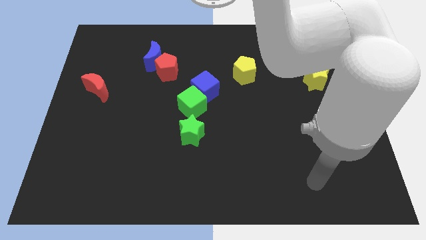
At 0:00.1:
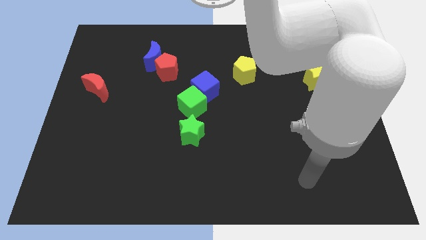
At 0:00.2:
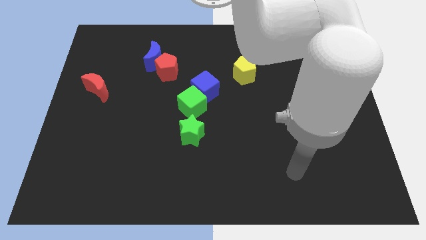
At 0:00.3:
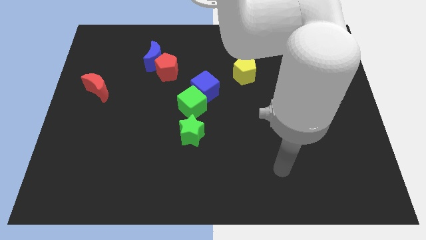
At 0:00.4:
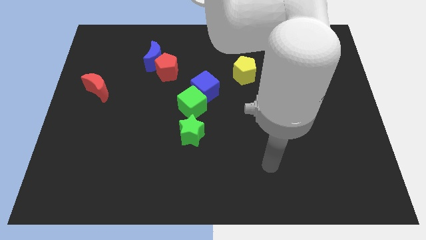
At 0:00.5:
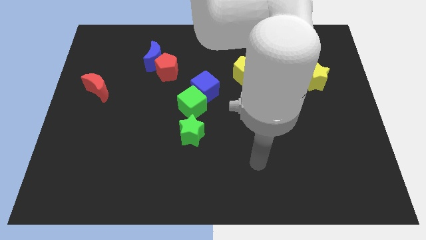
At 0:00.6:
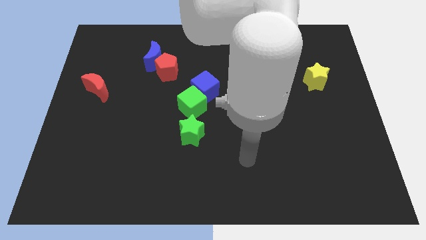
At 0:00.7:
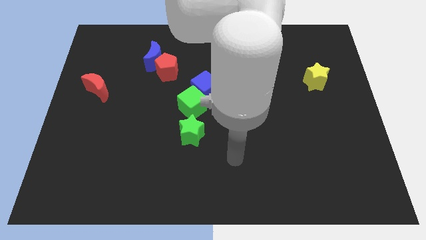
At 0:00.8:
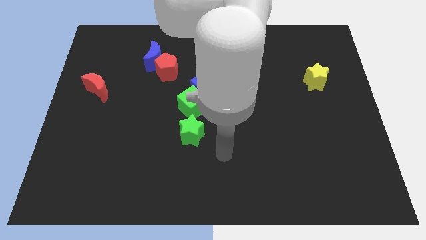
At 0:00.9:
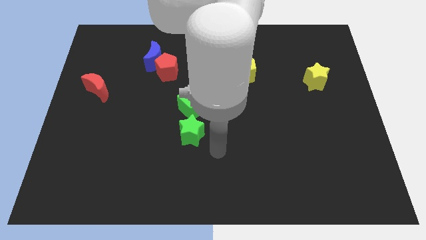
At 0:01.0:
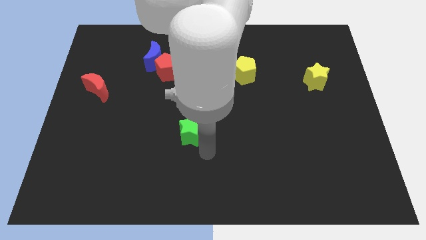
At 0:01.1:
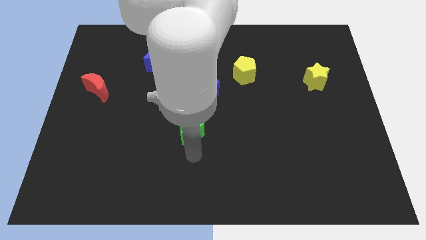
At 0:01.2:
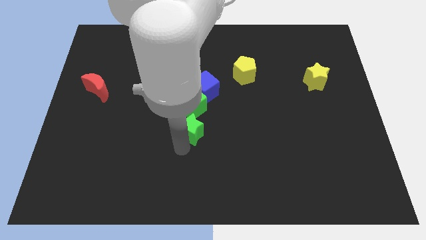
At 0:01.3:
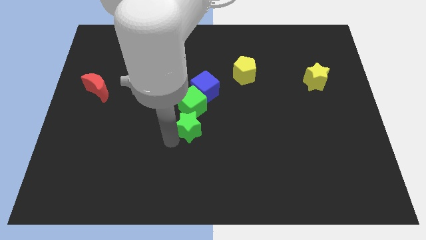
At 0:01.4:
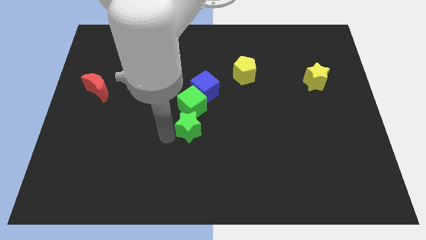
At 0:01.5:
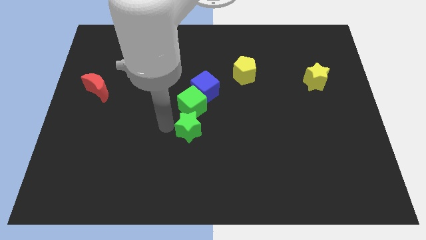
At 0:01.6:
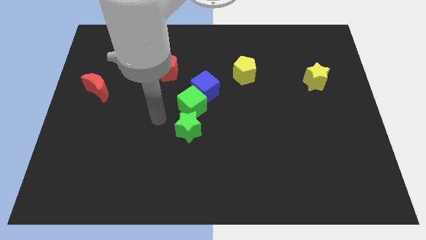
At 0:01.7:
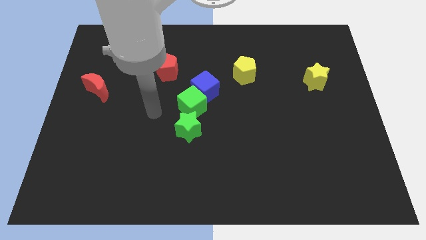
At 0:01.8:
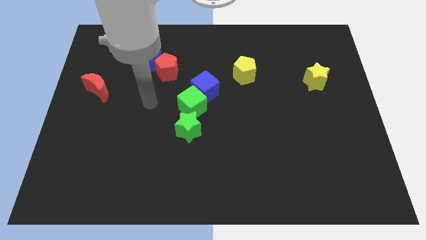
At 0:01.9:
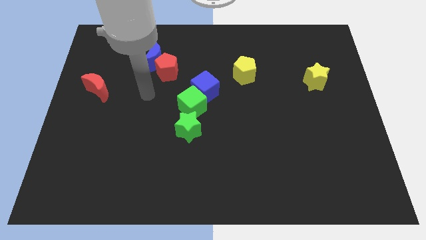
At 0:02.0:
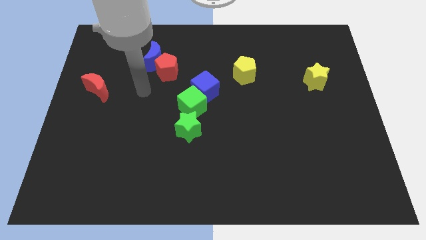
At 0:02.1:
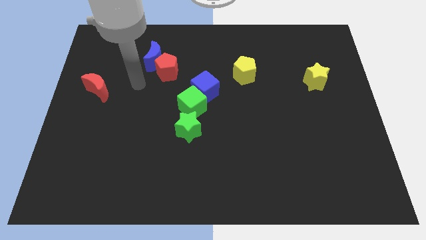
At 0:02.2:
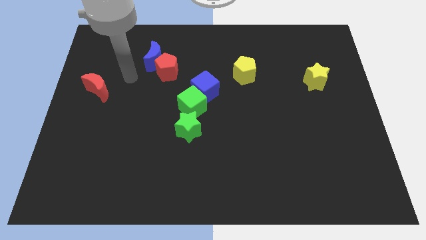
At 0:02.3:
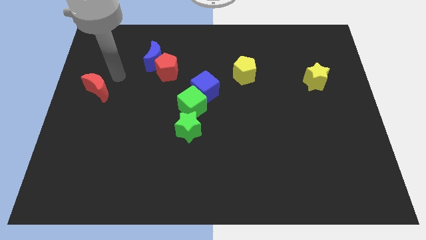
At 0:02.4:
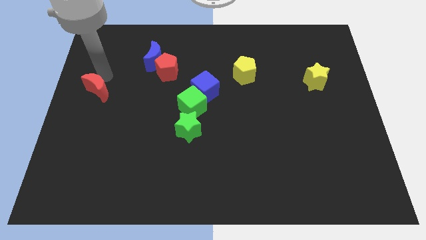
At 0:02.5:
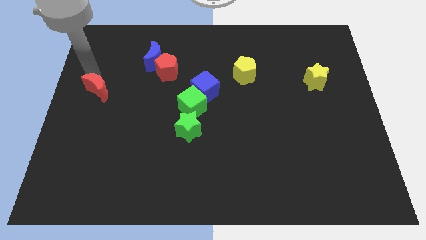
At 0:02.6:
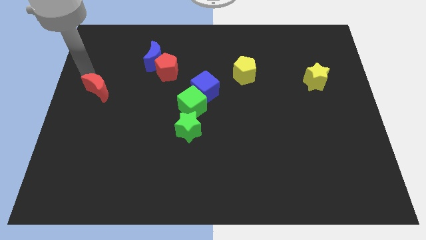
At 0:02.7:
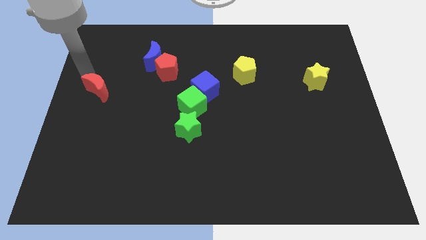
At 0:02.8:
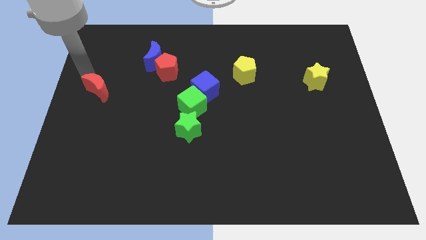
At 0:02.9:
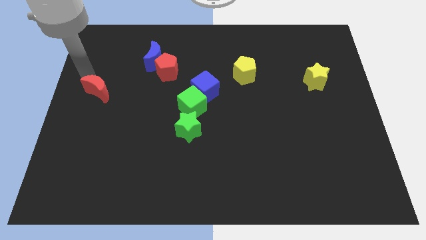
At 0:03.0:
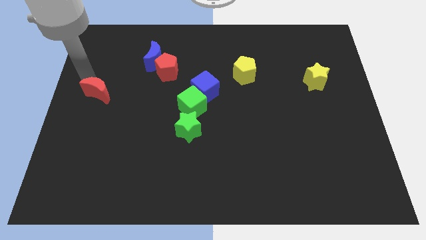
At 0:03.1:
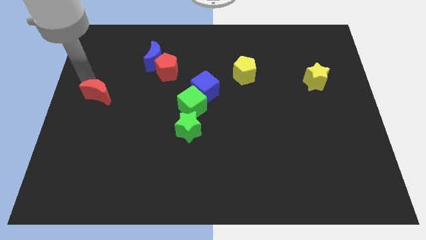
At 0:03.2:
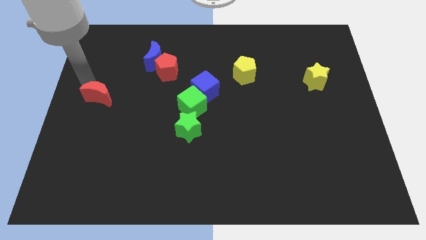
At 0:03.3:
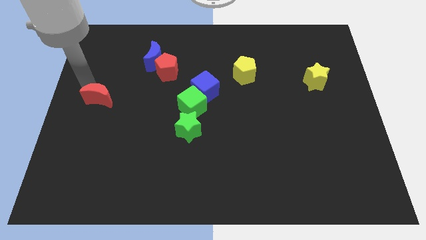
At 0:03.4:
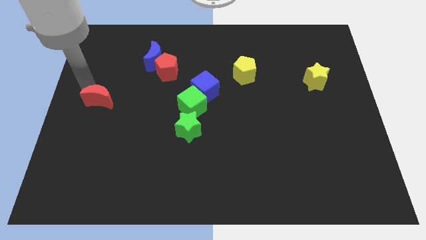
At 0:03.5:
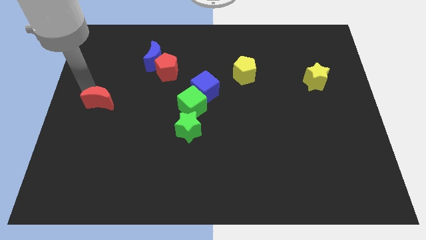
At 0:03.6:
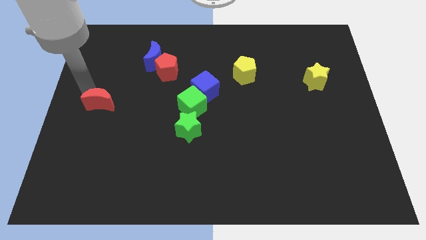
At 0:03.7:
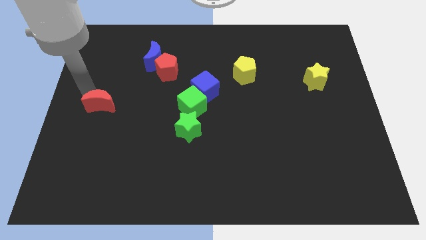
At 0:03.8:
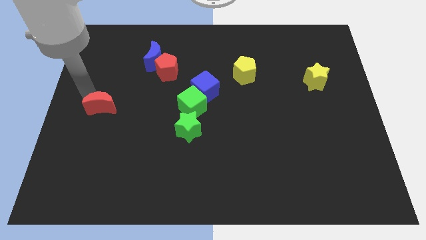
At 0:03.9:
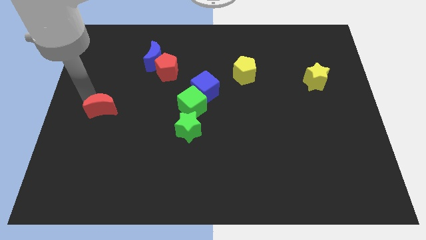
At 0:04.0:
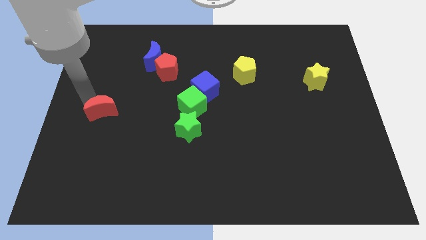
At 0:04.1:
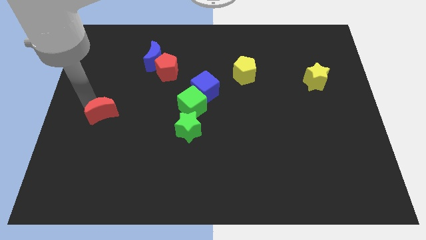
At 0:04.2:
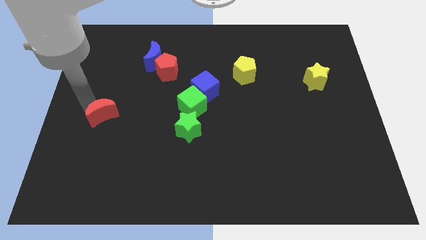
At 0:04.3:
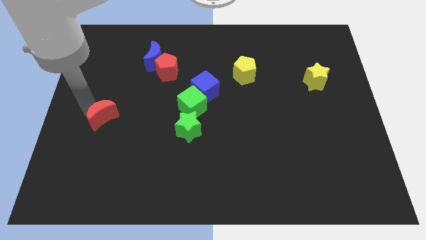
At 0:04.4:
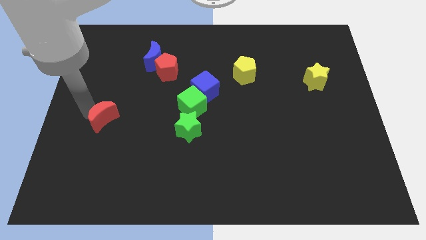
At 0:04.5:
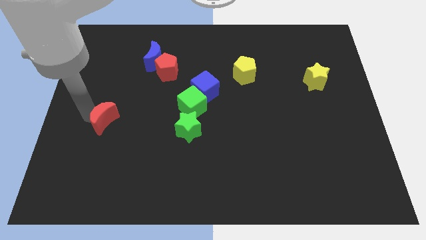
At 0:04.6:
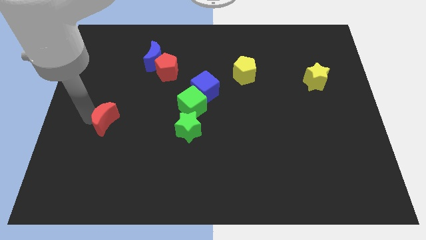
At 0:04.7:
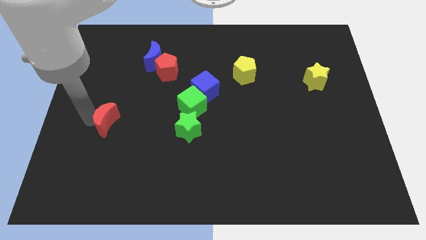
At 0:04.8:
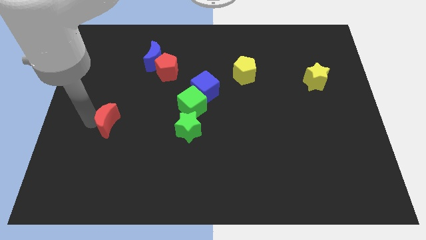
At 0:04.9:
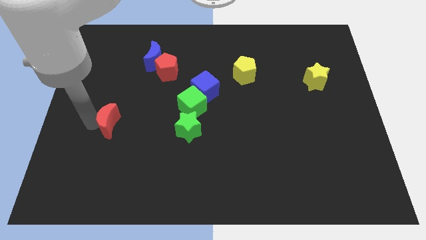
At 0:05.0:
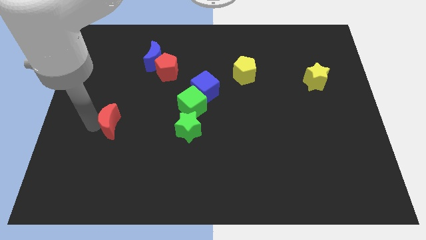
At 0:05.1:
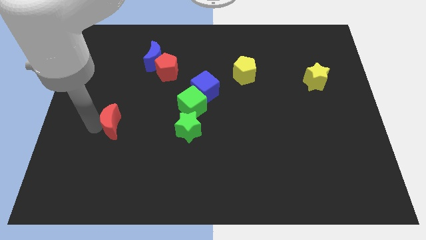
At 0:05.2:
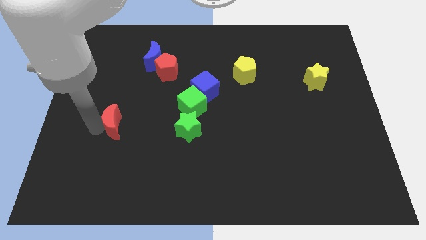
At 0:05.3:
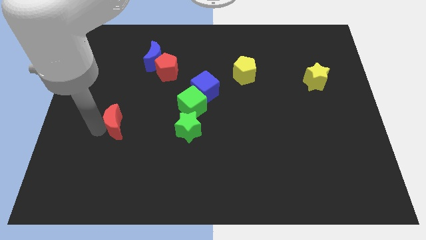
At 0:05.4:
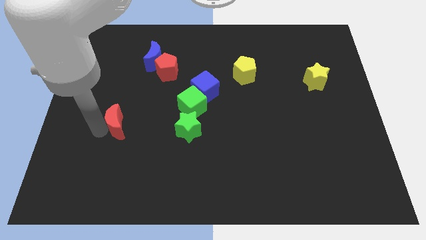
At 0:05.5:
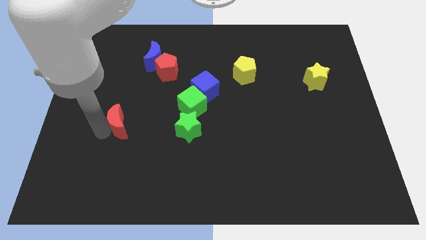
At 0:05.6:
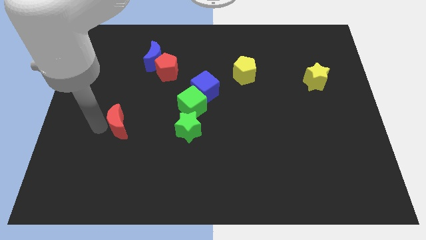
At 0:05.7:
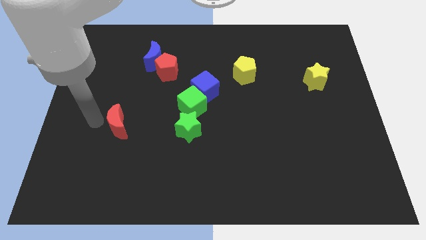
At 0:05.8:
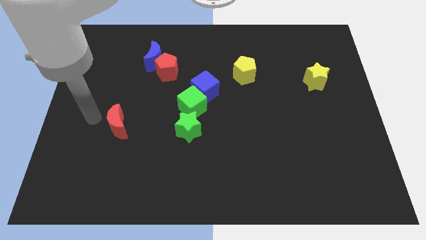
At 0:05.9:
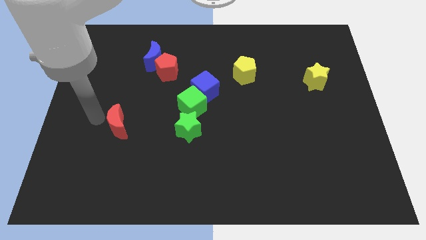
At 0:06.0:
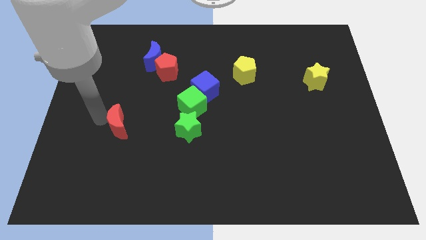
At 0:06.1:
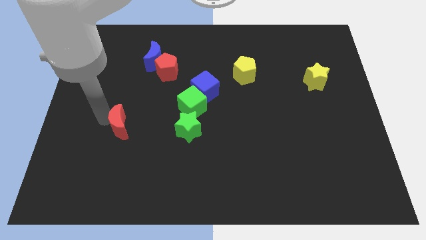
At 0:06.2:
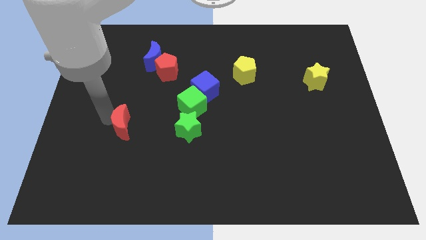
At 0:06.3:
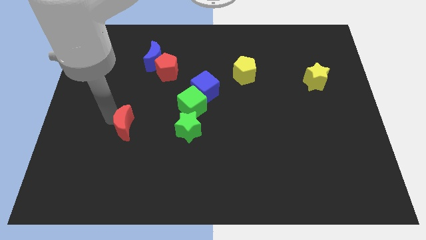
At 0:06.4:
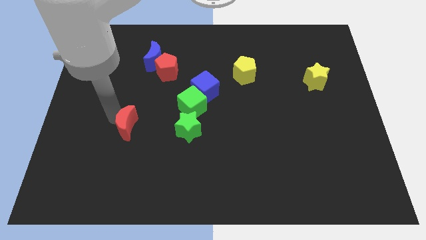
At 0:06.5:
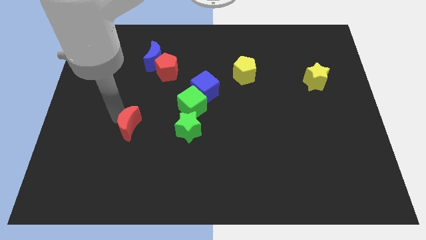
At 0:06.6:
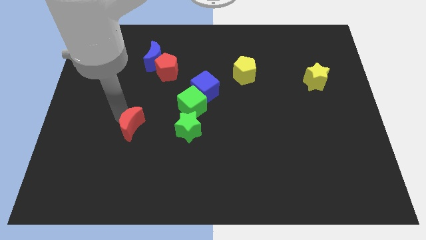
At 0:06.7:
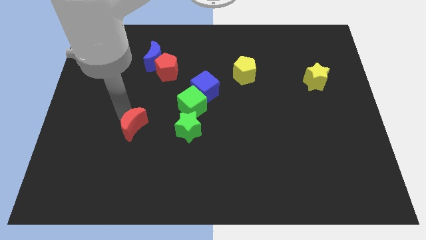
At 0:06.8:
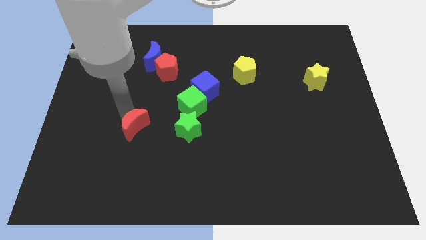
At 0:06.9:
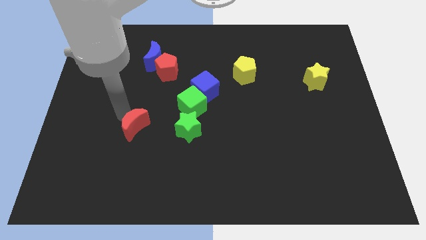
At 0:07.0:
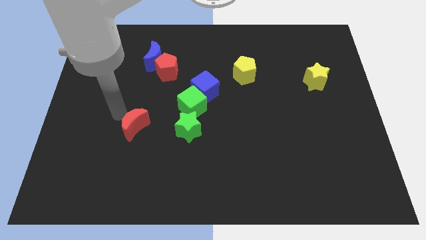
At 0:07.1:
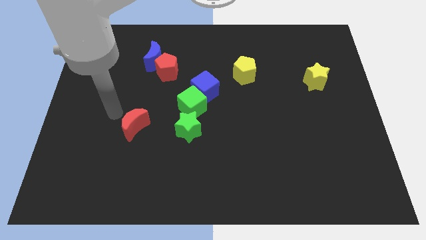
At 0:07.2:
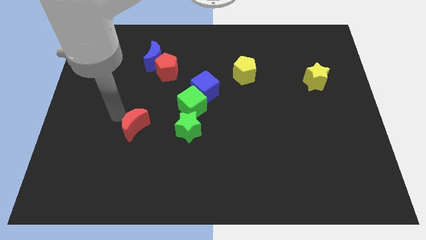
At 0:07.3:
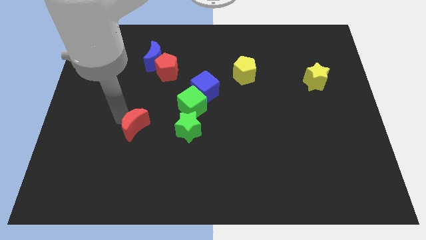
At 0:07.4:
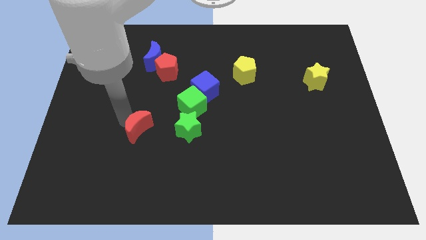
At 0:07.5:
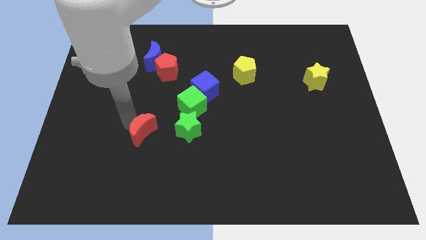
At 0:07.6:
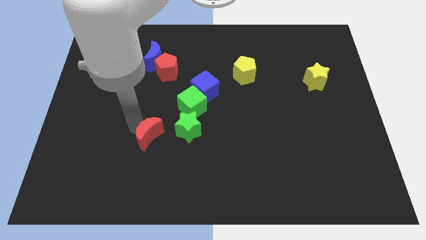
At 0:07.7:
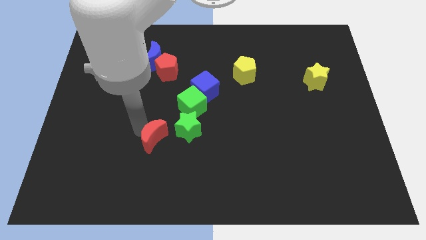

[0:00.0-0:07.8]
push the red moon down and right diagonally

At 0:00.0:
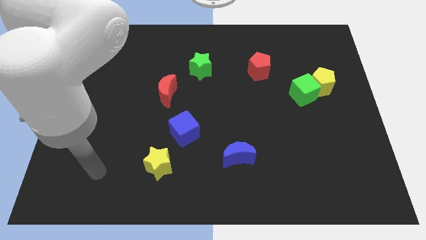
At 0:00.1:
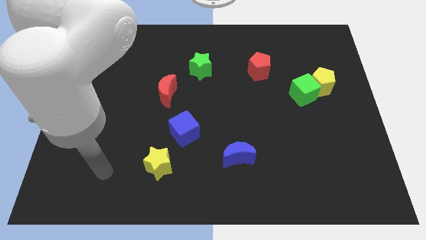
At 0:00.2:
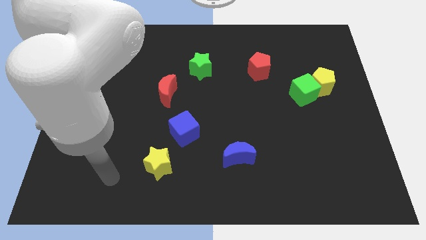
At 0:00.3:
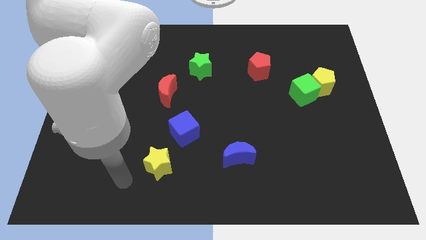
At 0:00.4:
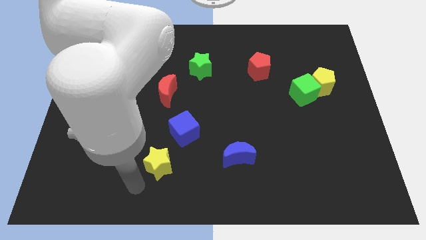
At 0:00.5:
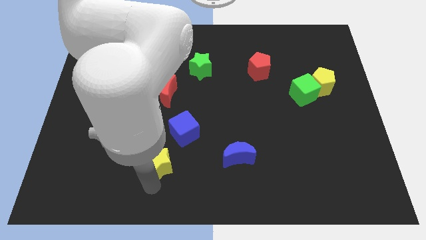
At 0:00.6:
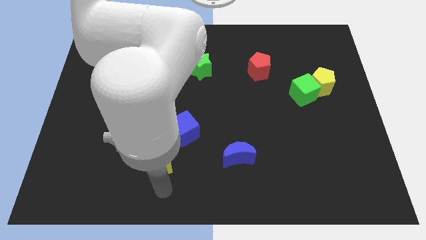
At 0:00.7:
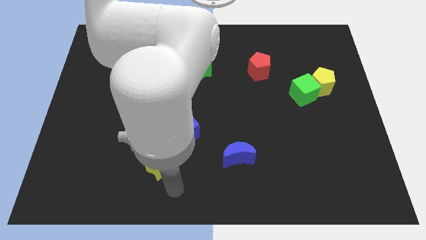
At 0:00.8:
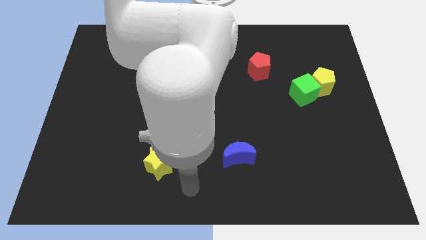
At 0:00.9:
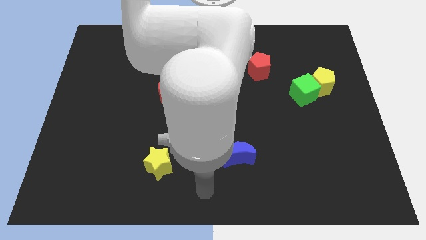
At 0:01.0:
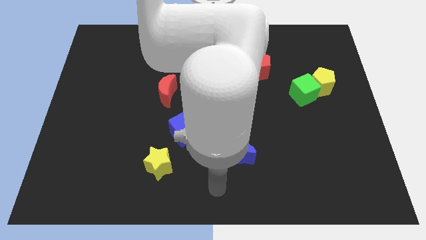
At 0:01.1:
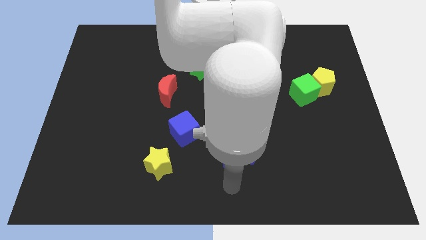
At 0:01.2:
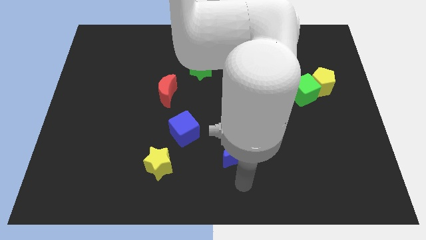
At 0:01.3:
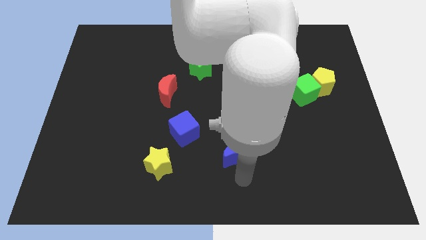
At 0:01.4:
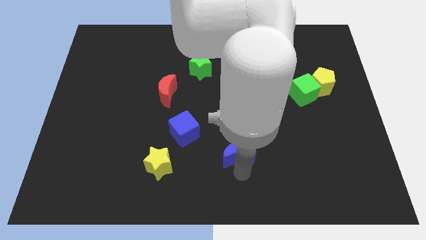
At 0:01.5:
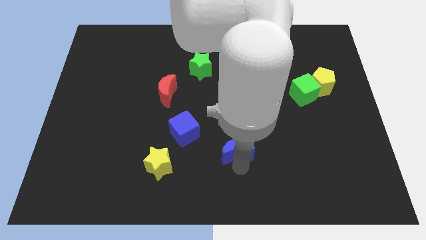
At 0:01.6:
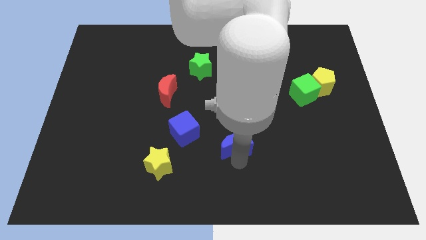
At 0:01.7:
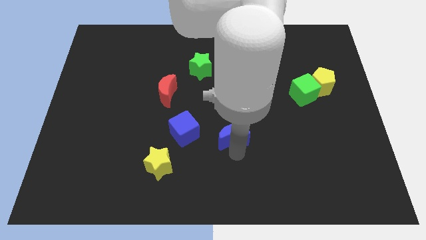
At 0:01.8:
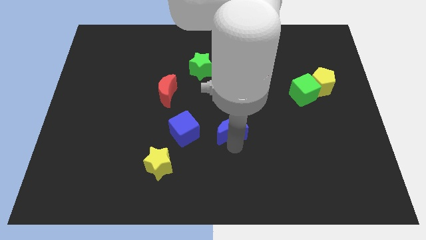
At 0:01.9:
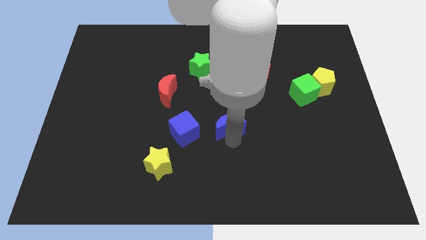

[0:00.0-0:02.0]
move the blue moon upwards slightly
